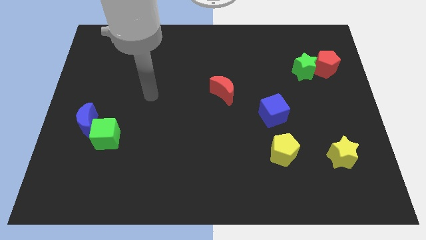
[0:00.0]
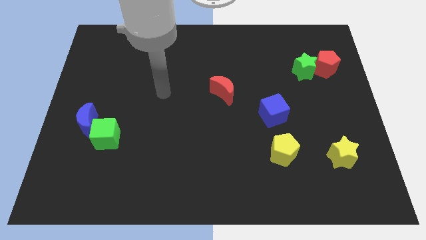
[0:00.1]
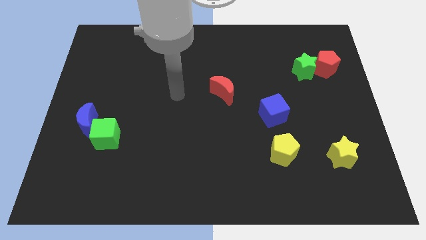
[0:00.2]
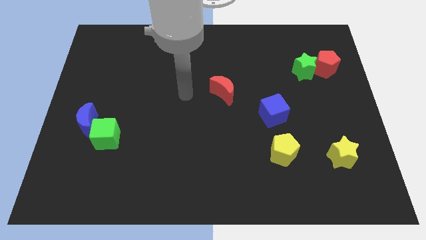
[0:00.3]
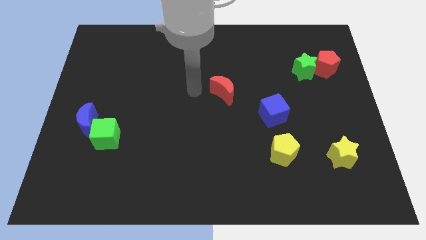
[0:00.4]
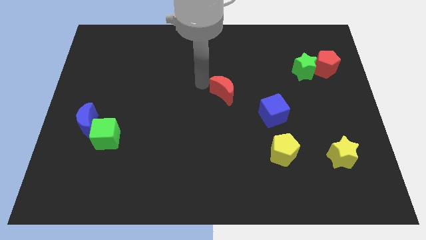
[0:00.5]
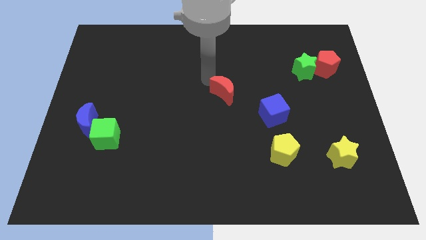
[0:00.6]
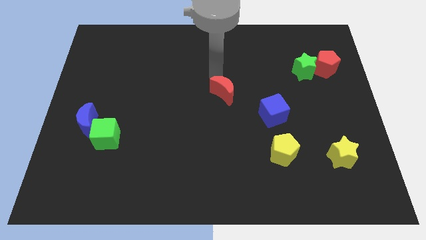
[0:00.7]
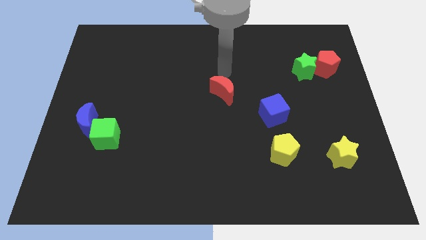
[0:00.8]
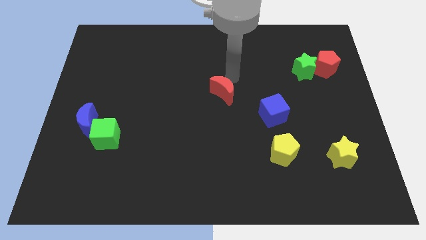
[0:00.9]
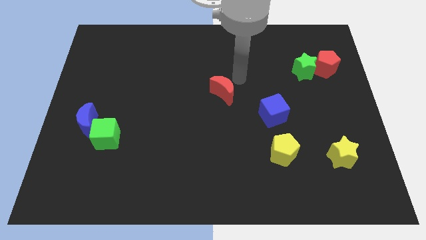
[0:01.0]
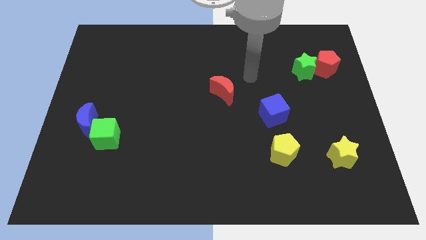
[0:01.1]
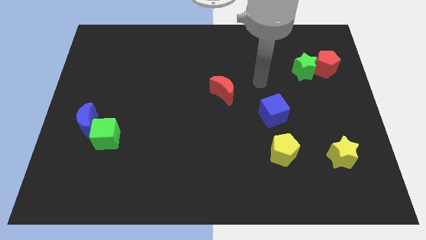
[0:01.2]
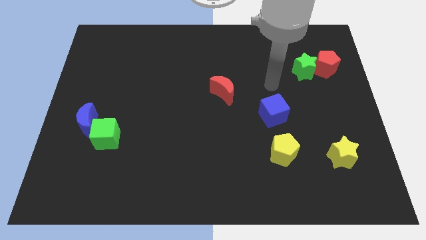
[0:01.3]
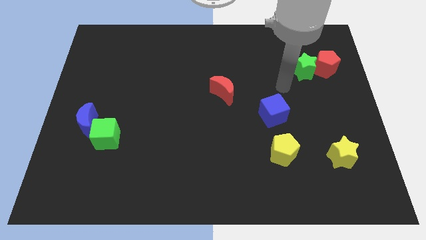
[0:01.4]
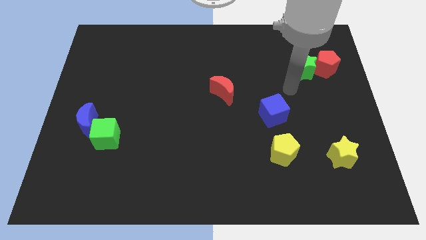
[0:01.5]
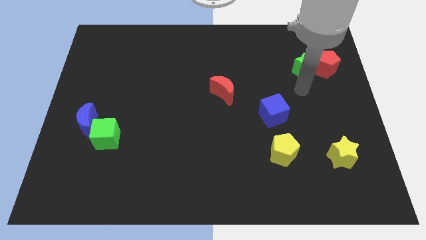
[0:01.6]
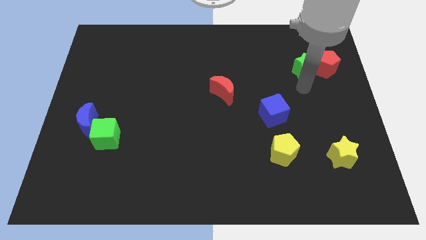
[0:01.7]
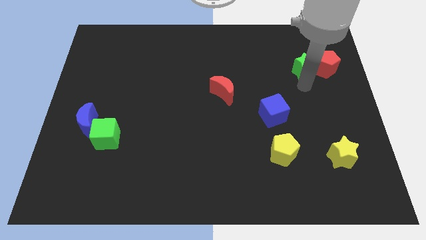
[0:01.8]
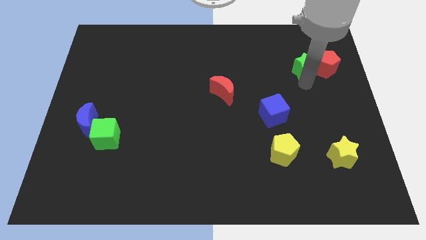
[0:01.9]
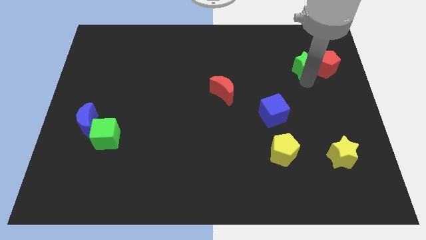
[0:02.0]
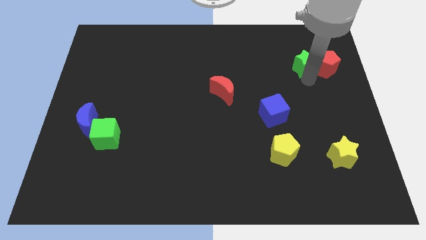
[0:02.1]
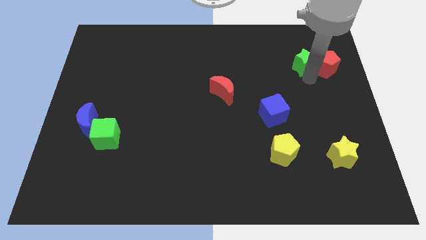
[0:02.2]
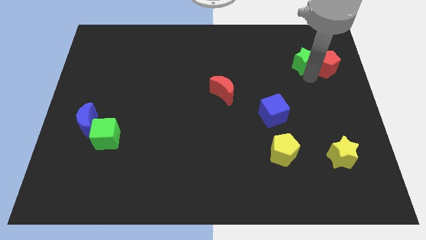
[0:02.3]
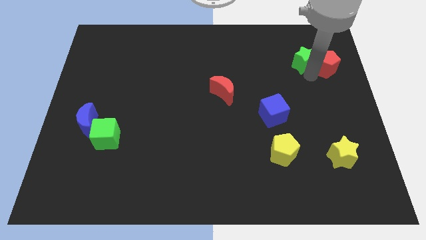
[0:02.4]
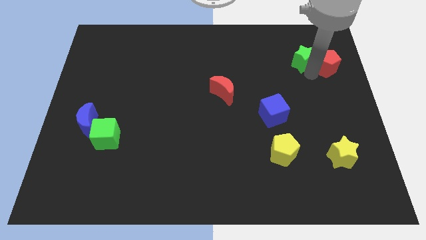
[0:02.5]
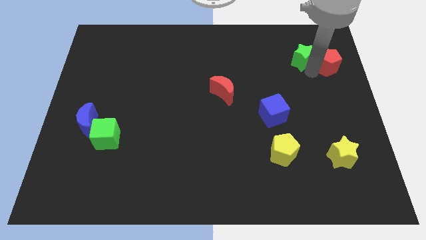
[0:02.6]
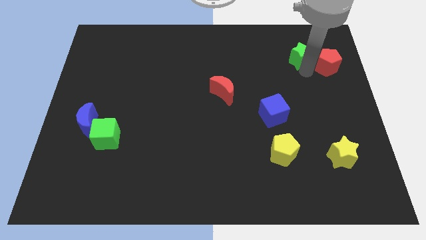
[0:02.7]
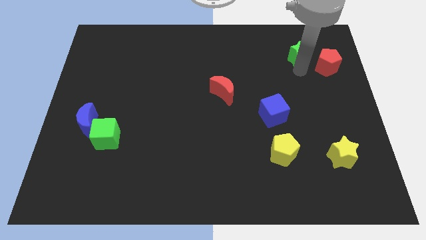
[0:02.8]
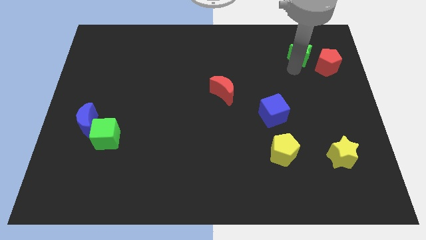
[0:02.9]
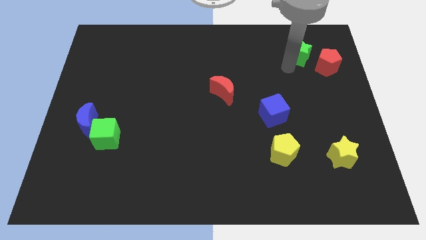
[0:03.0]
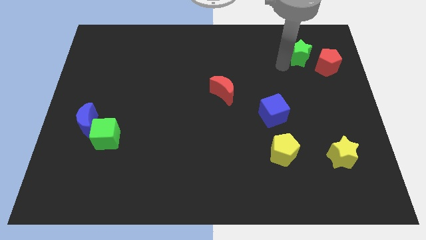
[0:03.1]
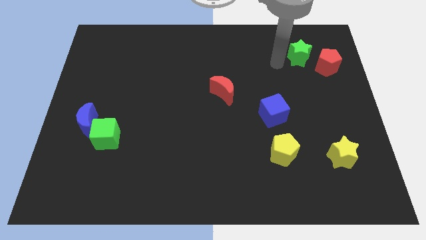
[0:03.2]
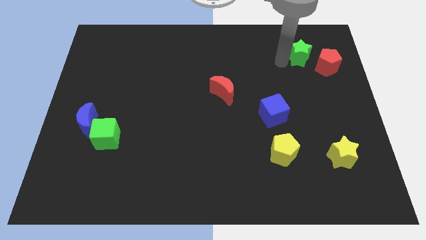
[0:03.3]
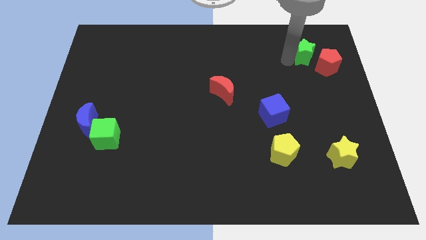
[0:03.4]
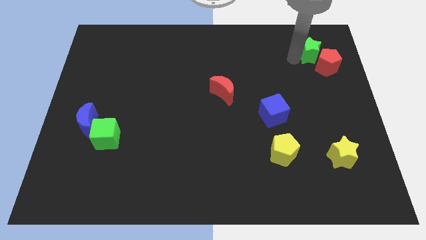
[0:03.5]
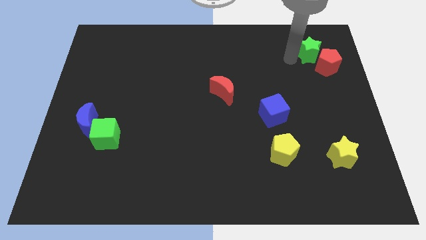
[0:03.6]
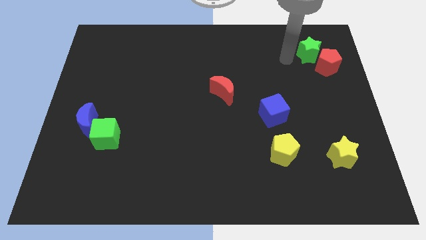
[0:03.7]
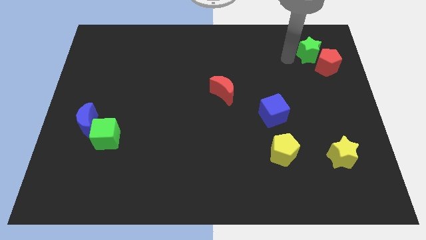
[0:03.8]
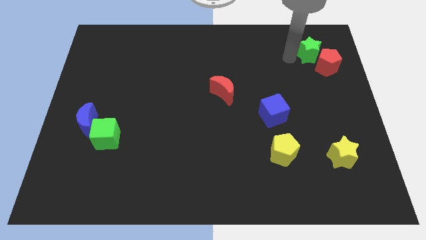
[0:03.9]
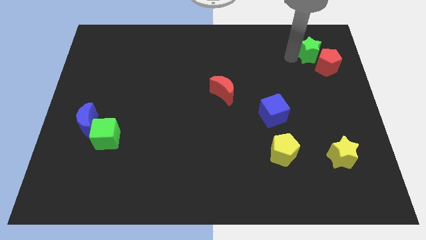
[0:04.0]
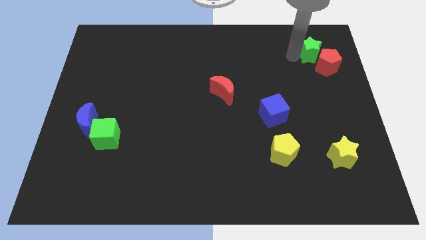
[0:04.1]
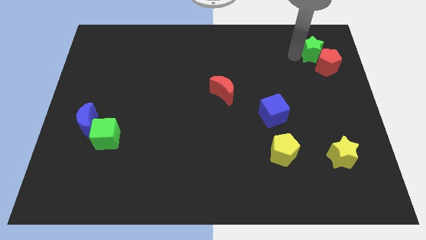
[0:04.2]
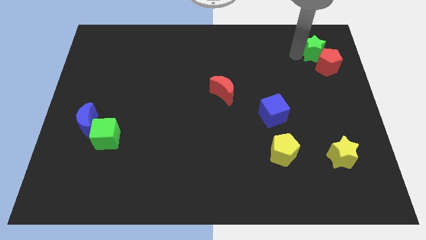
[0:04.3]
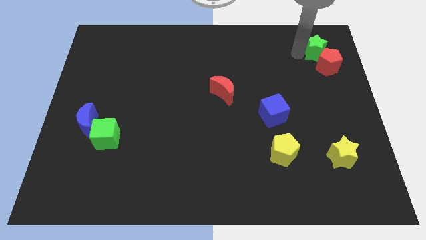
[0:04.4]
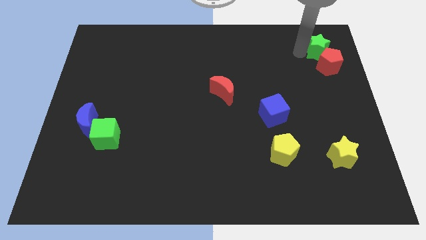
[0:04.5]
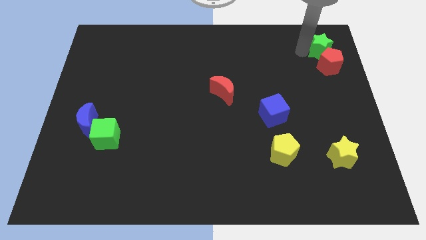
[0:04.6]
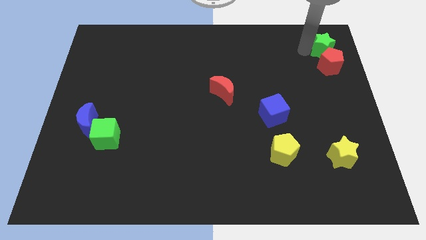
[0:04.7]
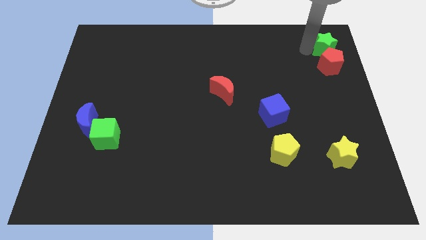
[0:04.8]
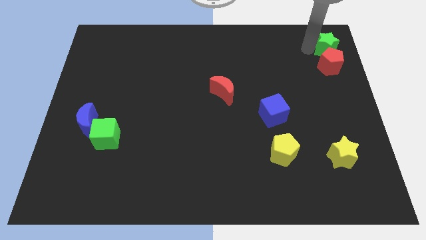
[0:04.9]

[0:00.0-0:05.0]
put the green star to the top right

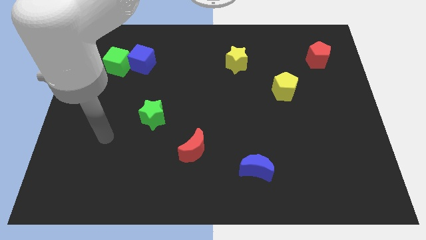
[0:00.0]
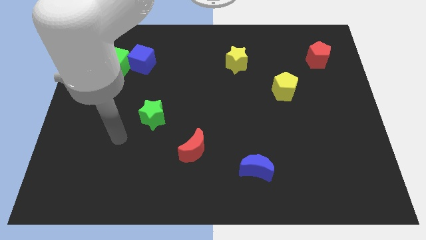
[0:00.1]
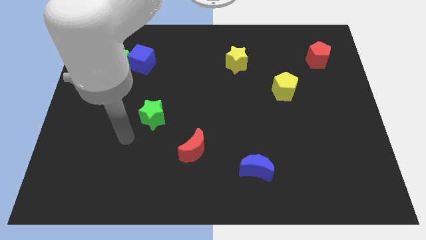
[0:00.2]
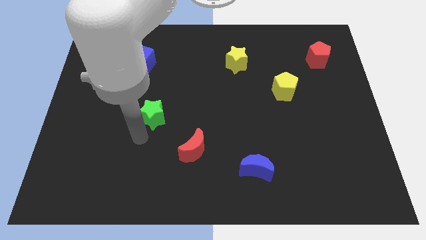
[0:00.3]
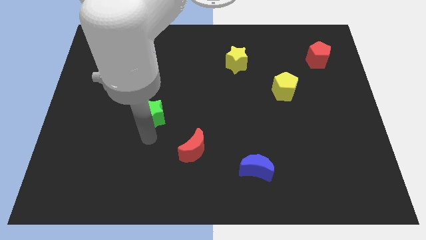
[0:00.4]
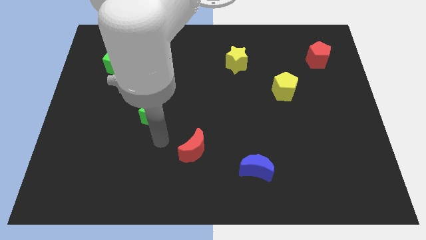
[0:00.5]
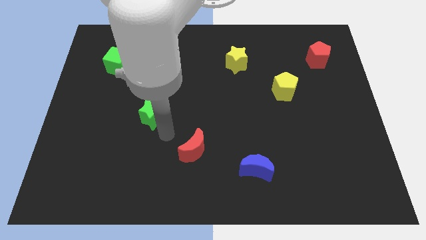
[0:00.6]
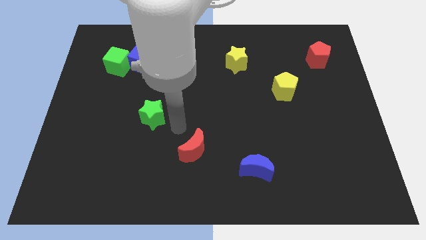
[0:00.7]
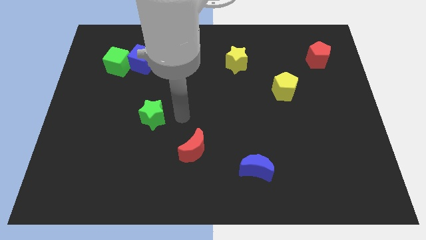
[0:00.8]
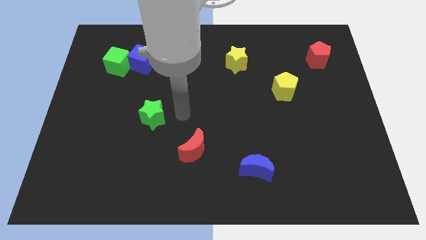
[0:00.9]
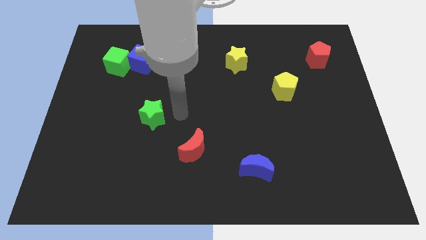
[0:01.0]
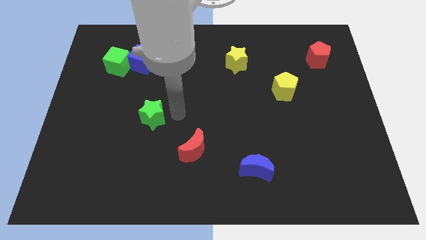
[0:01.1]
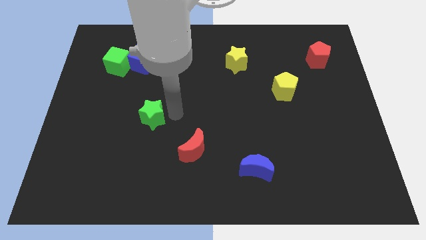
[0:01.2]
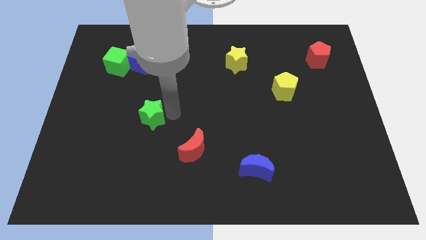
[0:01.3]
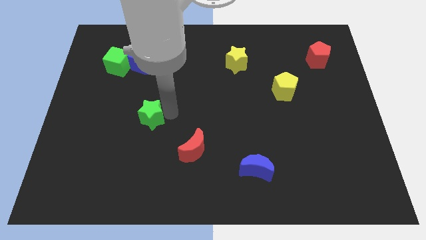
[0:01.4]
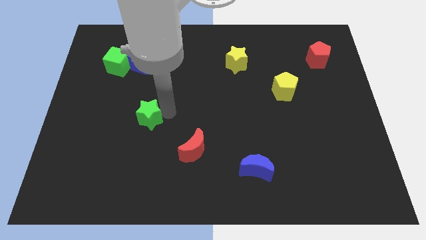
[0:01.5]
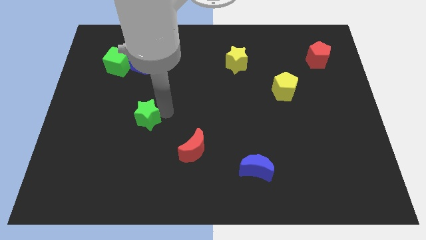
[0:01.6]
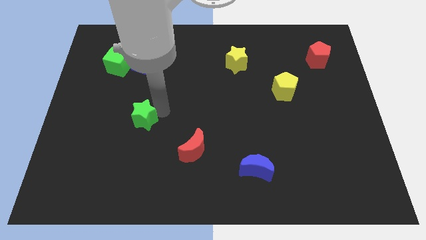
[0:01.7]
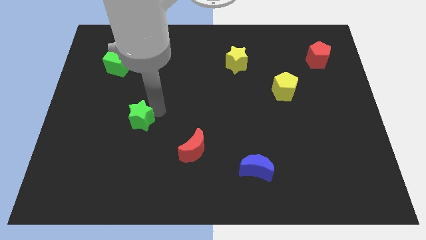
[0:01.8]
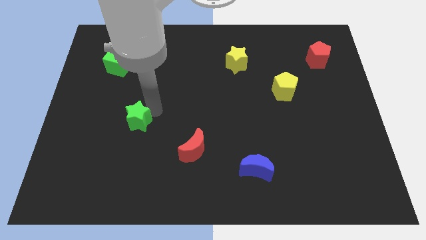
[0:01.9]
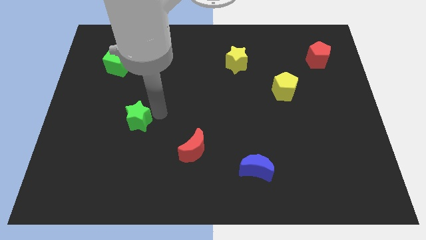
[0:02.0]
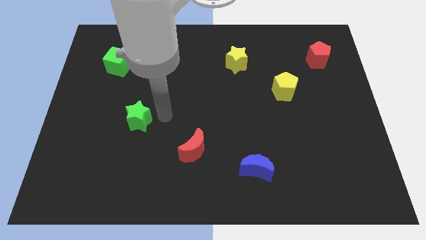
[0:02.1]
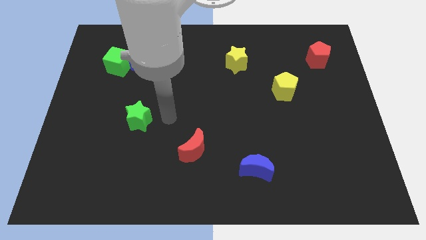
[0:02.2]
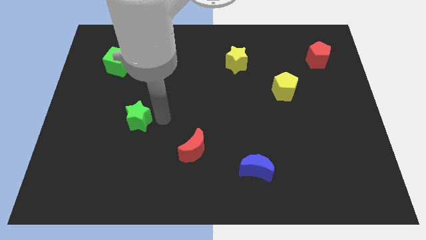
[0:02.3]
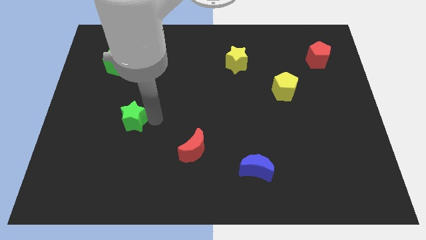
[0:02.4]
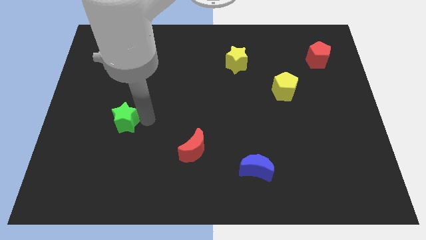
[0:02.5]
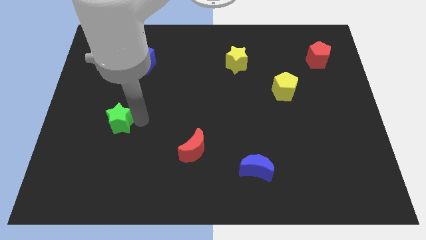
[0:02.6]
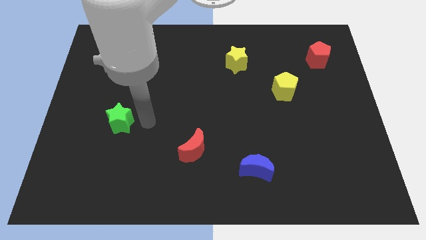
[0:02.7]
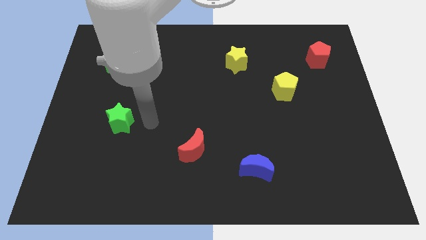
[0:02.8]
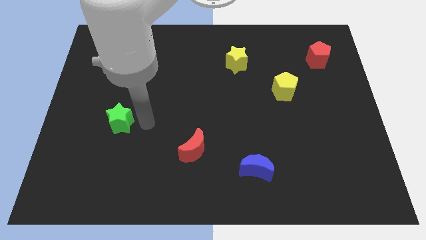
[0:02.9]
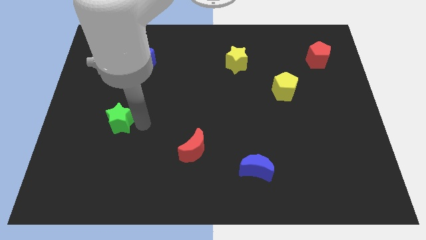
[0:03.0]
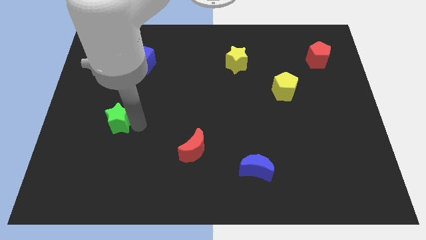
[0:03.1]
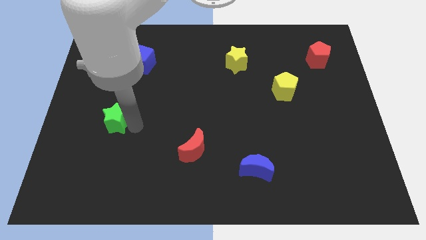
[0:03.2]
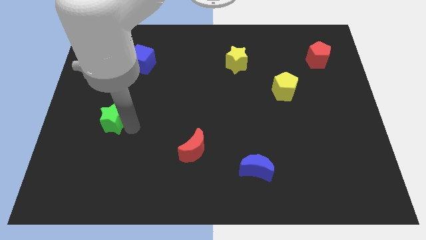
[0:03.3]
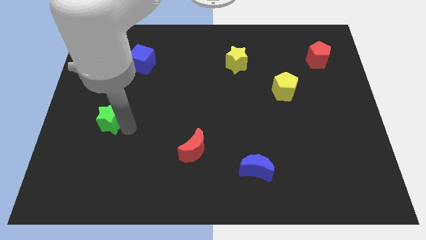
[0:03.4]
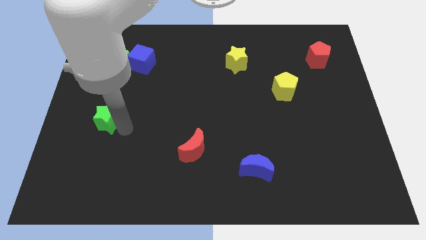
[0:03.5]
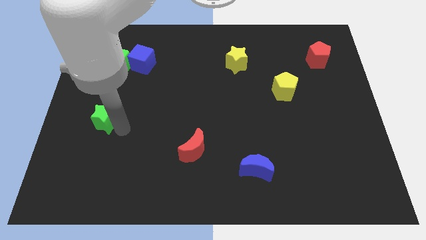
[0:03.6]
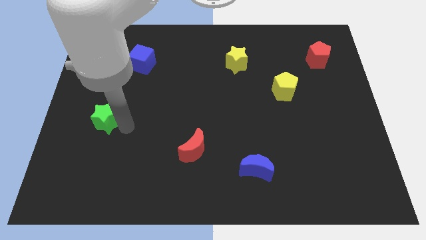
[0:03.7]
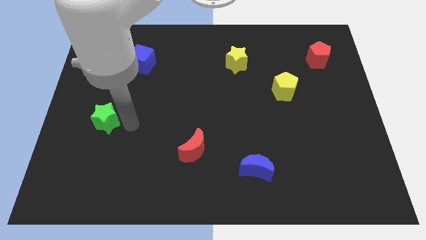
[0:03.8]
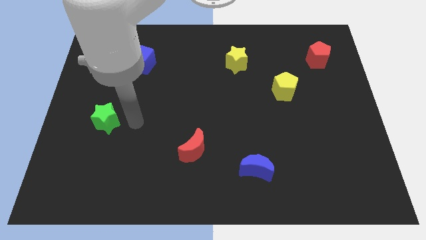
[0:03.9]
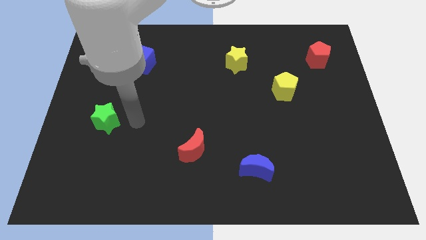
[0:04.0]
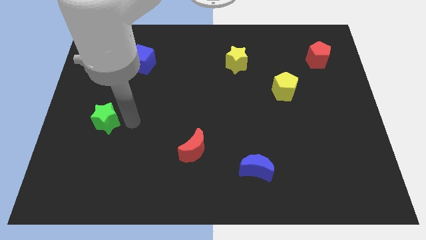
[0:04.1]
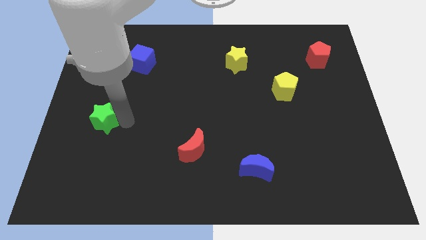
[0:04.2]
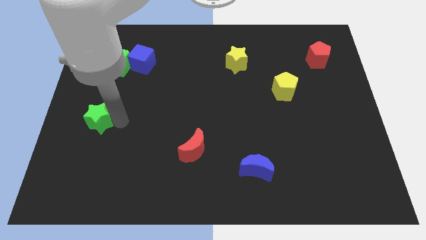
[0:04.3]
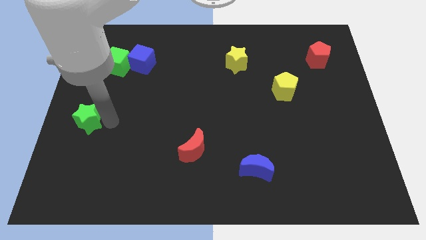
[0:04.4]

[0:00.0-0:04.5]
slide the green star to the left side
